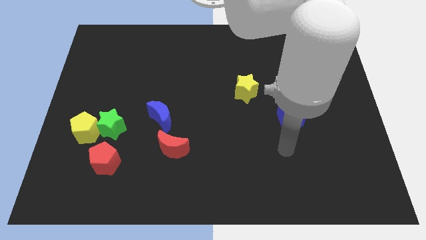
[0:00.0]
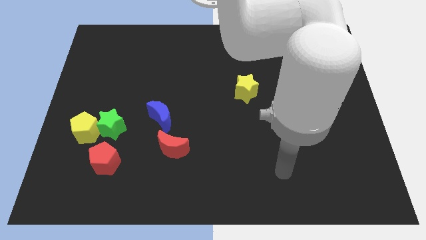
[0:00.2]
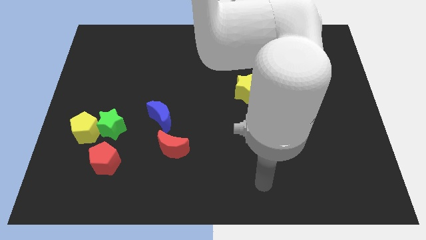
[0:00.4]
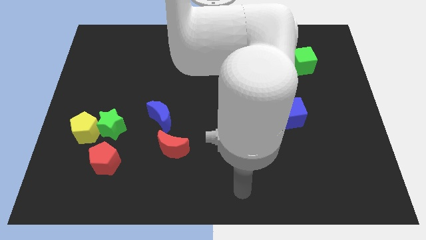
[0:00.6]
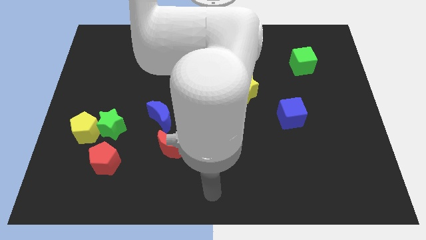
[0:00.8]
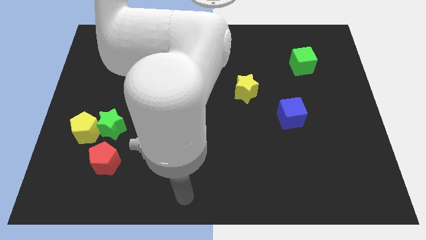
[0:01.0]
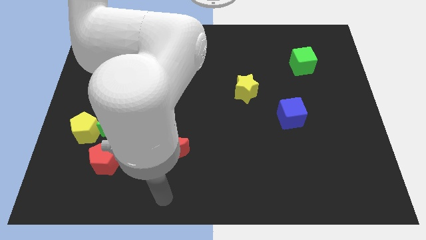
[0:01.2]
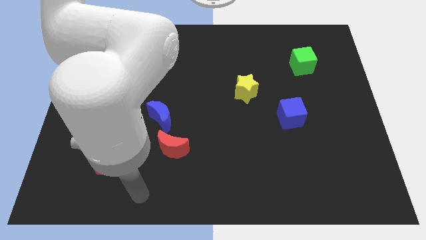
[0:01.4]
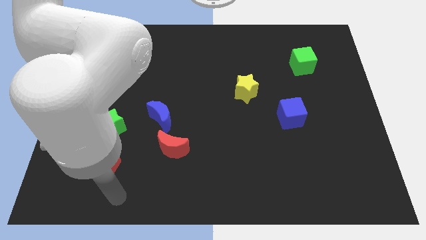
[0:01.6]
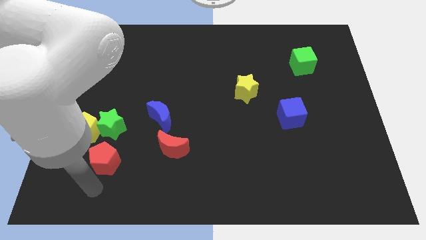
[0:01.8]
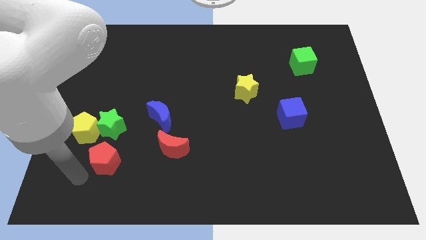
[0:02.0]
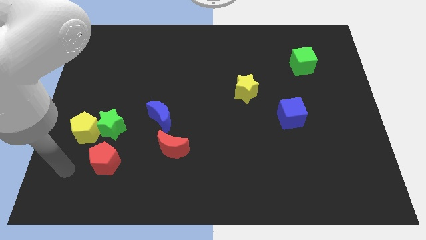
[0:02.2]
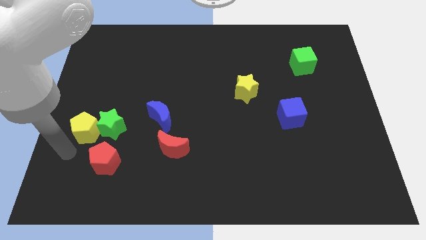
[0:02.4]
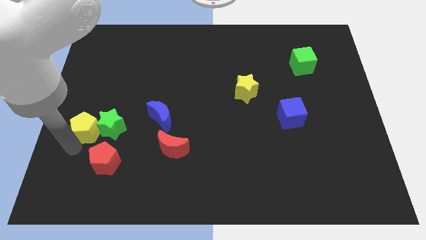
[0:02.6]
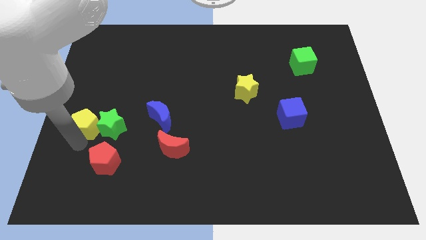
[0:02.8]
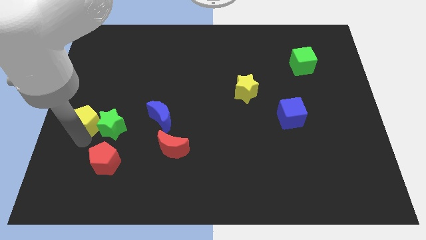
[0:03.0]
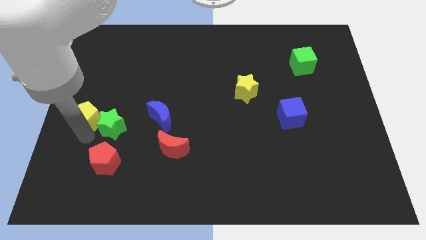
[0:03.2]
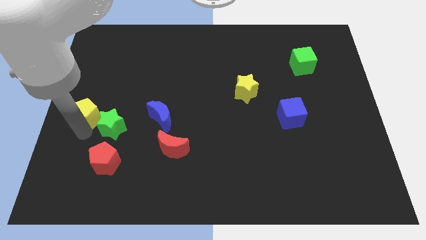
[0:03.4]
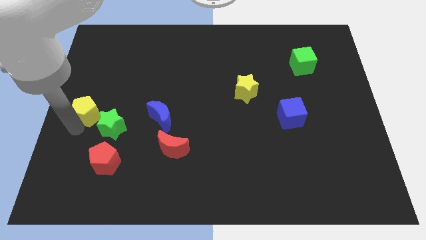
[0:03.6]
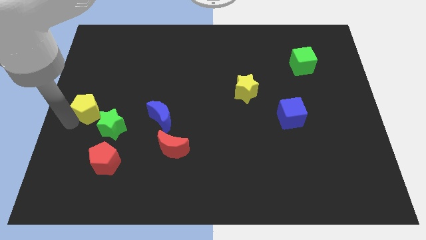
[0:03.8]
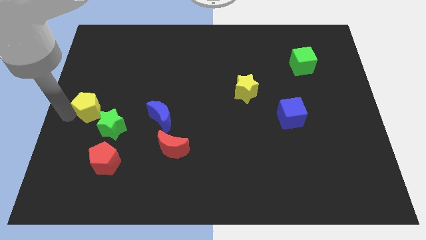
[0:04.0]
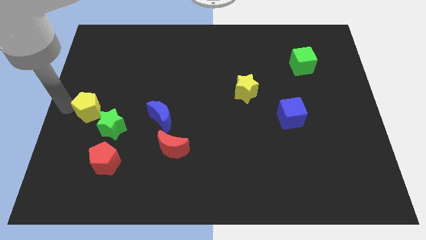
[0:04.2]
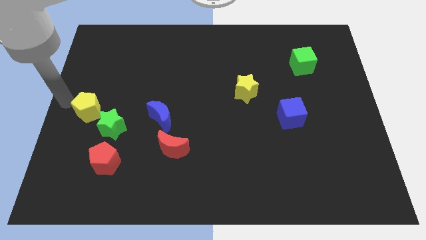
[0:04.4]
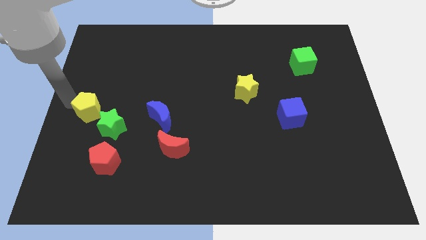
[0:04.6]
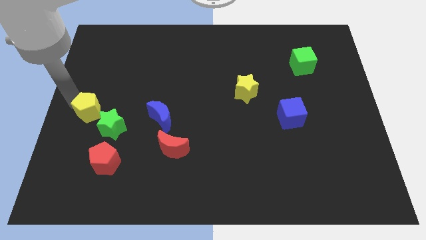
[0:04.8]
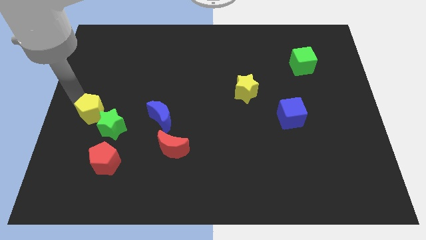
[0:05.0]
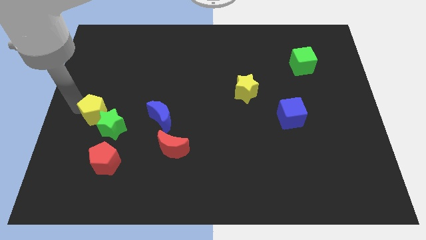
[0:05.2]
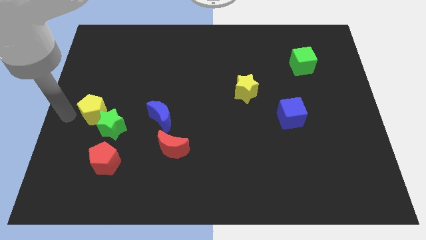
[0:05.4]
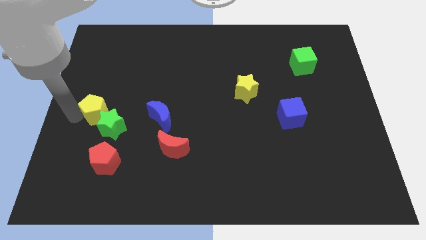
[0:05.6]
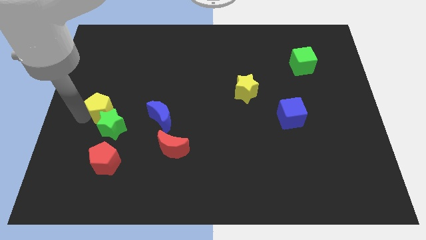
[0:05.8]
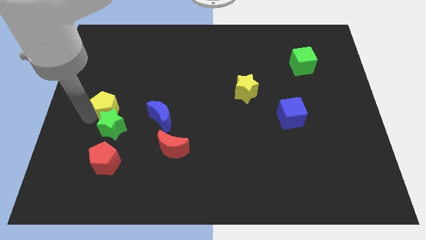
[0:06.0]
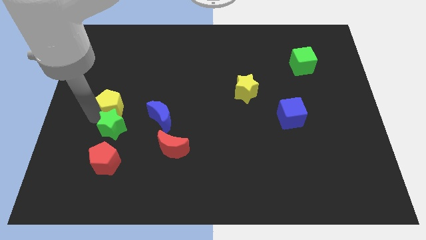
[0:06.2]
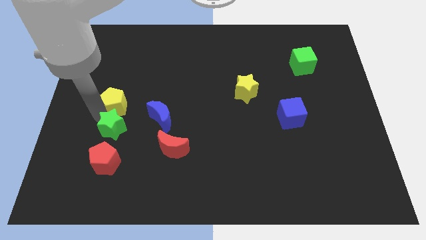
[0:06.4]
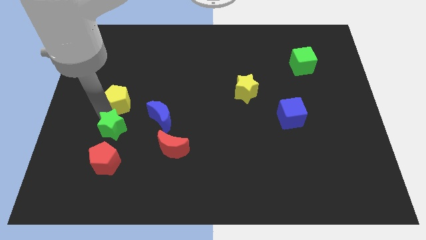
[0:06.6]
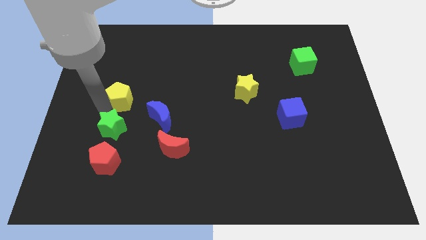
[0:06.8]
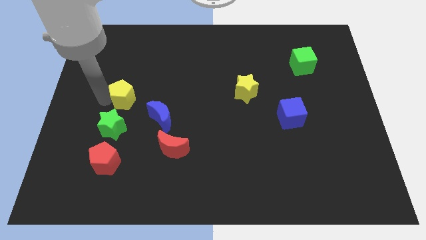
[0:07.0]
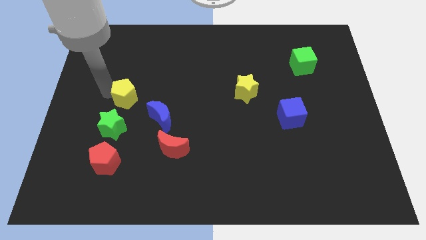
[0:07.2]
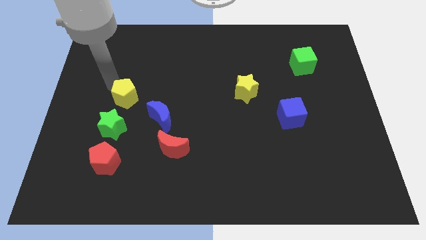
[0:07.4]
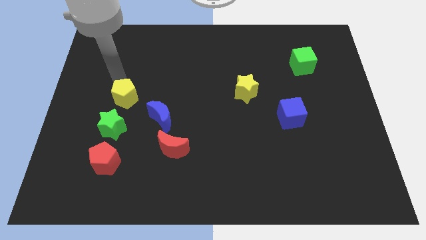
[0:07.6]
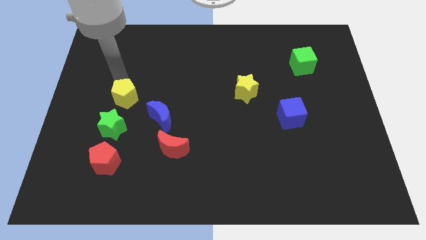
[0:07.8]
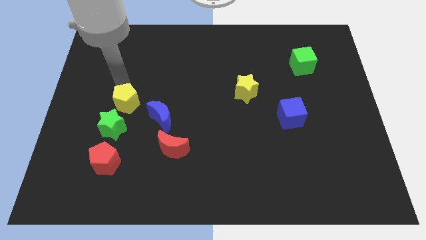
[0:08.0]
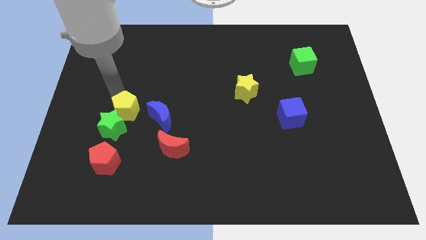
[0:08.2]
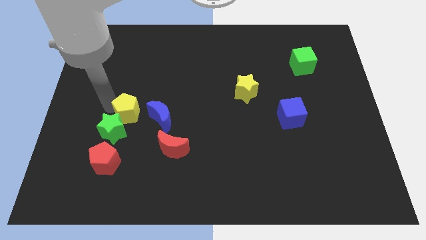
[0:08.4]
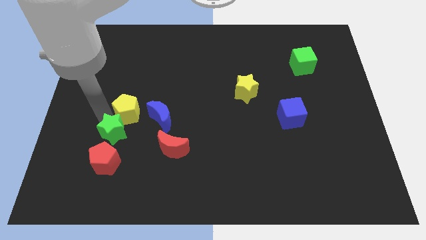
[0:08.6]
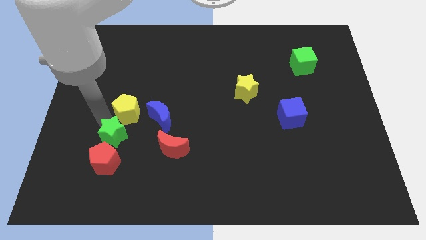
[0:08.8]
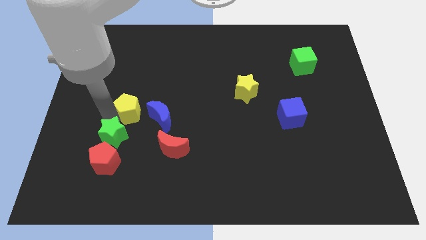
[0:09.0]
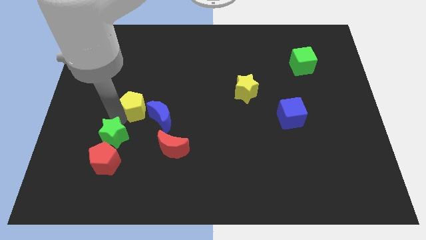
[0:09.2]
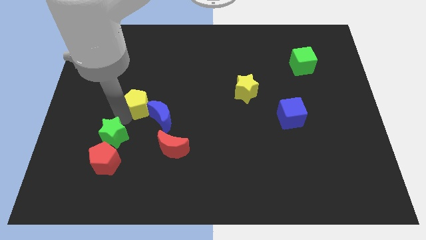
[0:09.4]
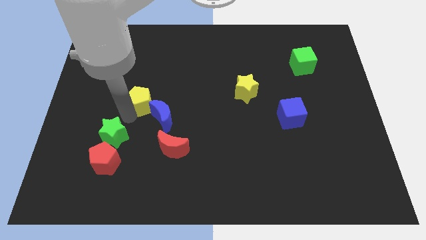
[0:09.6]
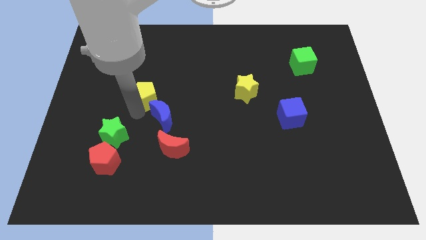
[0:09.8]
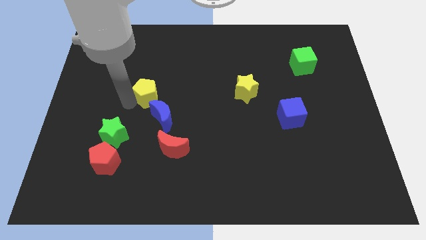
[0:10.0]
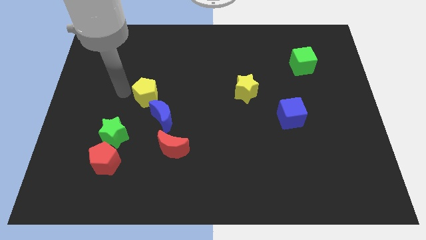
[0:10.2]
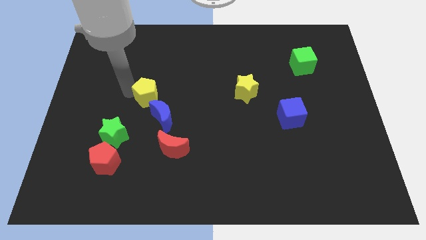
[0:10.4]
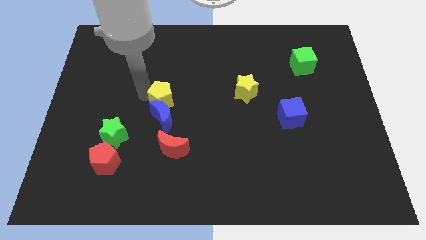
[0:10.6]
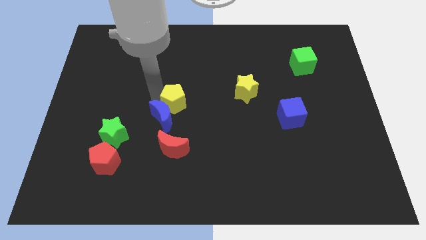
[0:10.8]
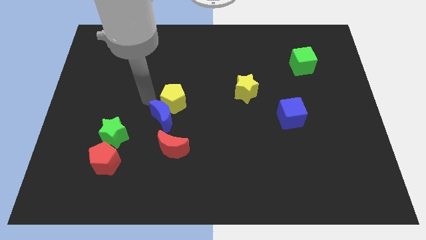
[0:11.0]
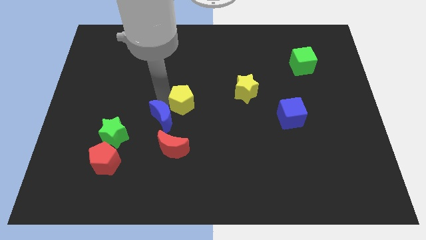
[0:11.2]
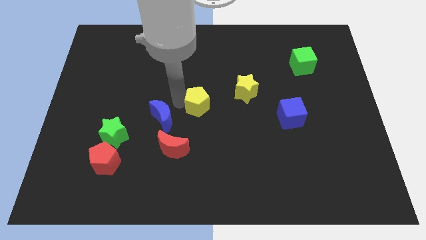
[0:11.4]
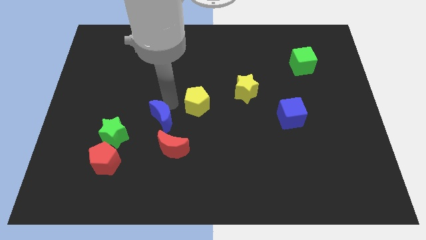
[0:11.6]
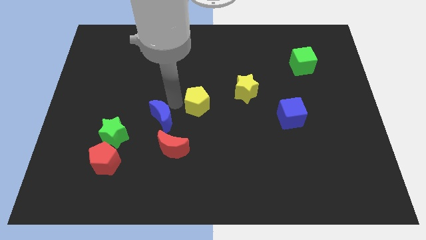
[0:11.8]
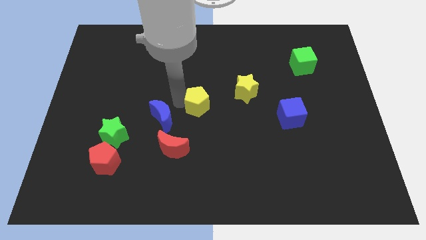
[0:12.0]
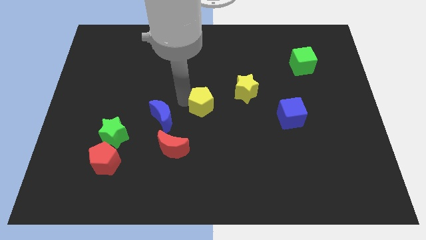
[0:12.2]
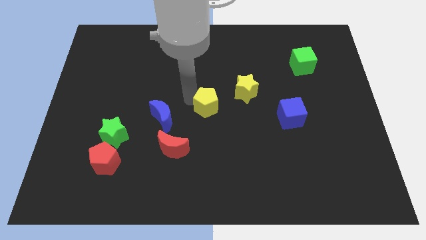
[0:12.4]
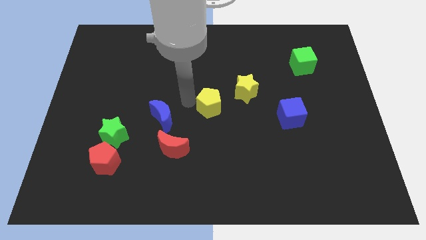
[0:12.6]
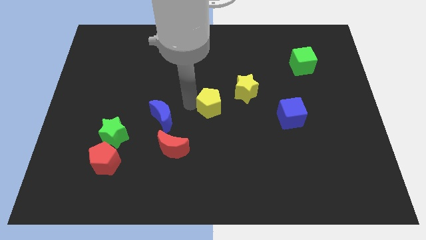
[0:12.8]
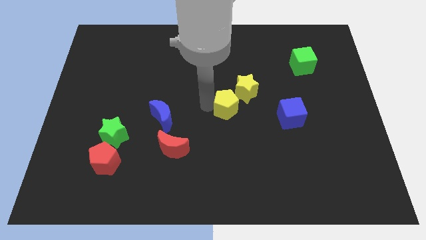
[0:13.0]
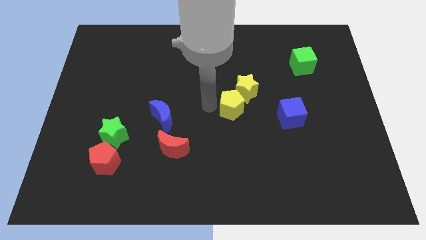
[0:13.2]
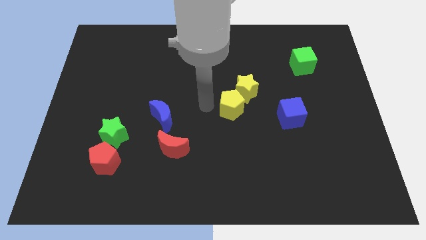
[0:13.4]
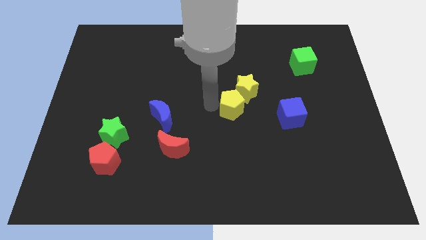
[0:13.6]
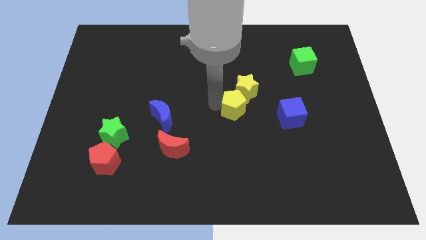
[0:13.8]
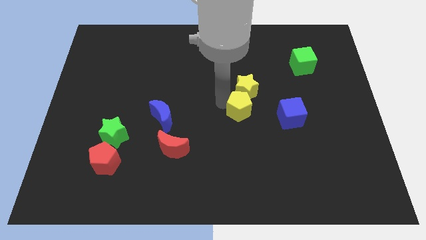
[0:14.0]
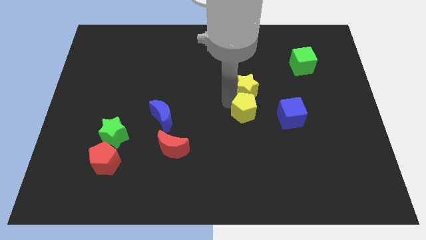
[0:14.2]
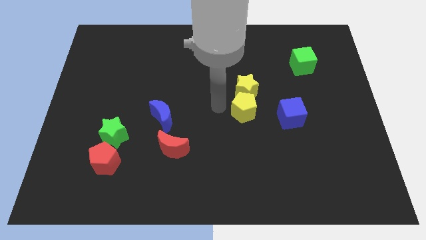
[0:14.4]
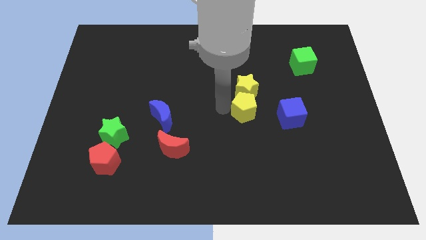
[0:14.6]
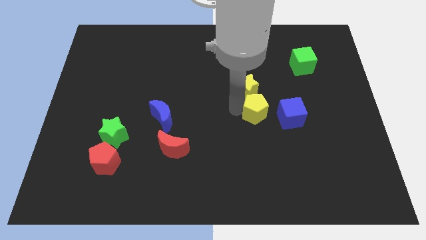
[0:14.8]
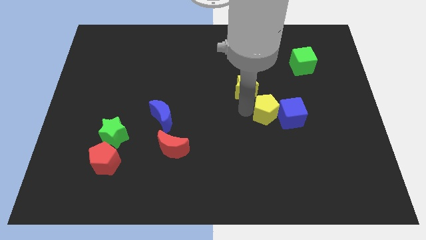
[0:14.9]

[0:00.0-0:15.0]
push the yellow pentagon next to the blue cube

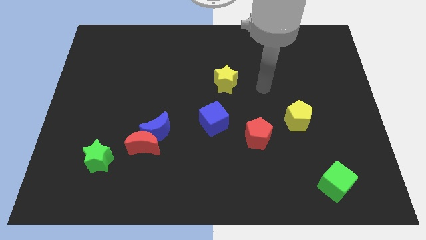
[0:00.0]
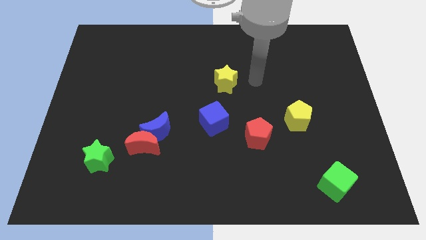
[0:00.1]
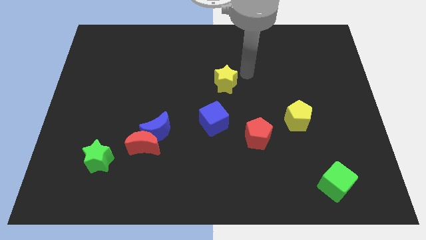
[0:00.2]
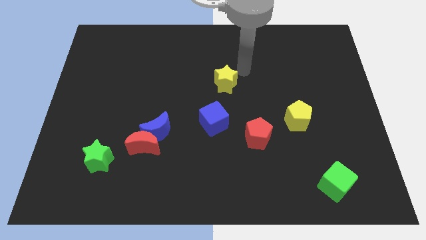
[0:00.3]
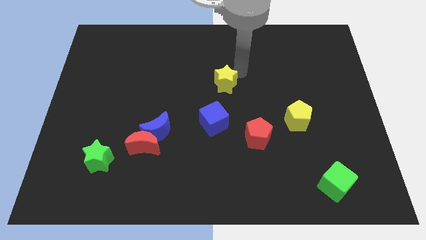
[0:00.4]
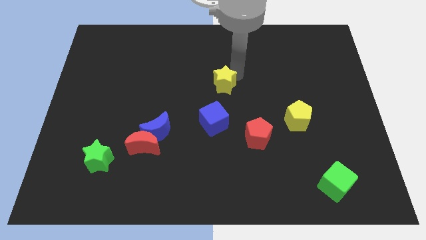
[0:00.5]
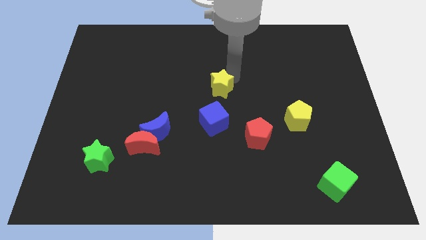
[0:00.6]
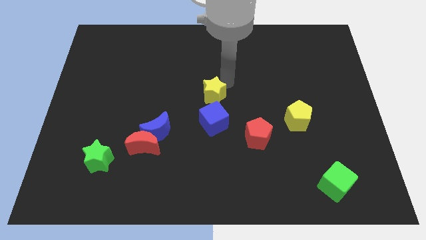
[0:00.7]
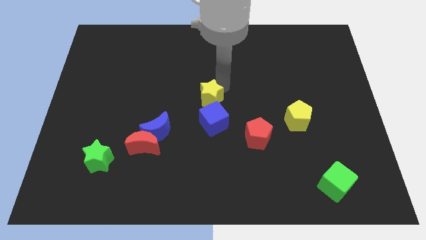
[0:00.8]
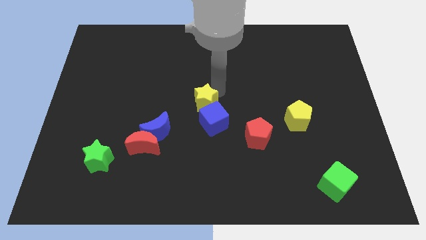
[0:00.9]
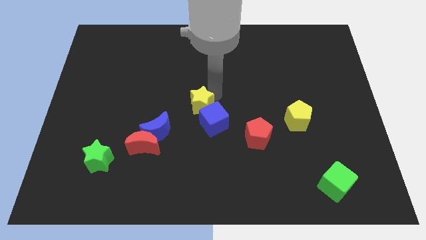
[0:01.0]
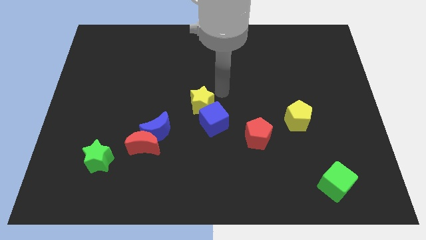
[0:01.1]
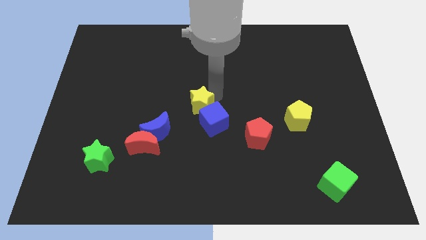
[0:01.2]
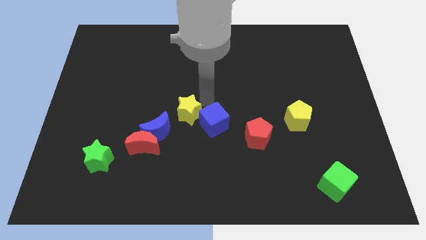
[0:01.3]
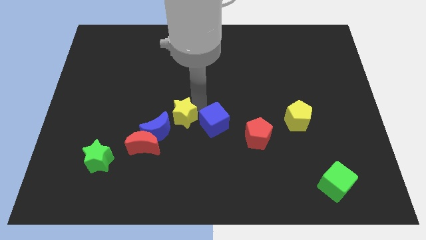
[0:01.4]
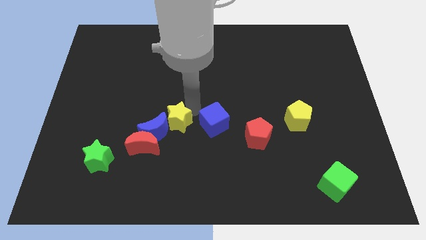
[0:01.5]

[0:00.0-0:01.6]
slide the yellow star to the blue moon
